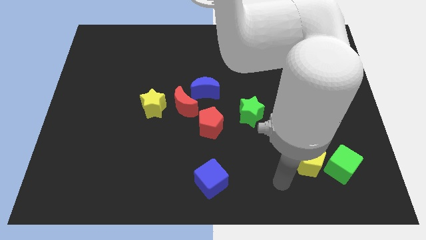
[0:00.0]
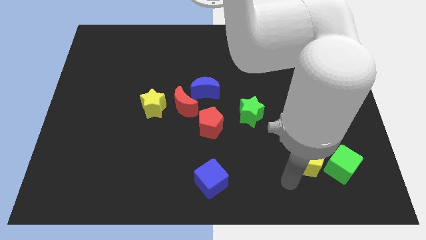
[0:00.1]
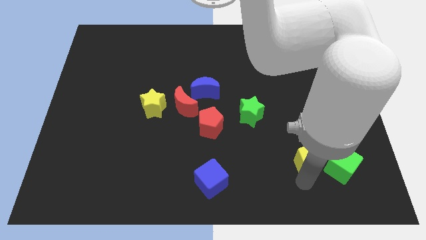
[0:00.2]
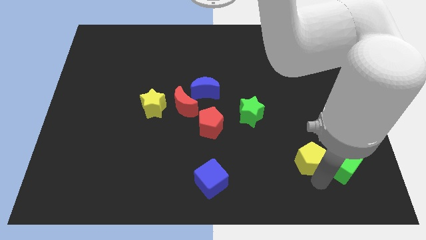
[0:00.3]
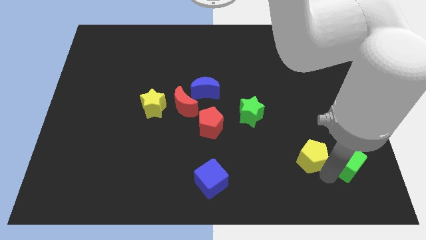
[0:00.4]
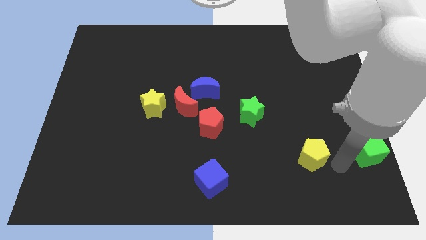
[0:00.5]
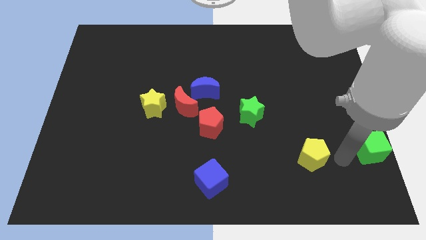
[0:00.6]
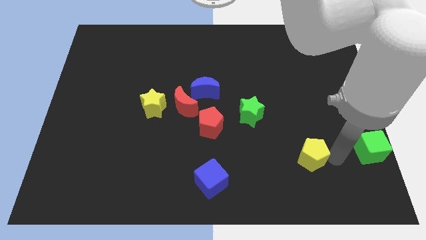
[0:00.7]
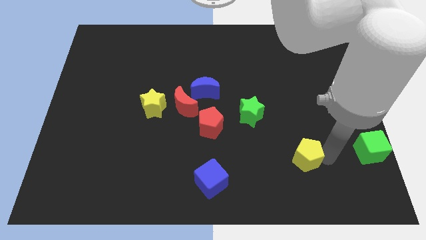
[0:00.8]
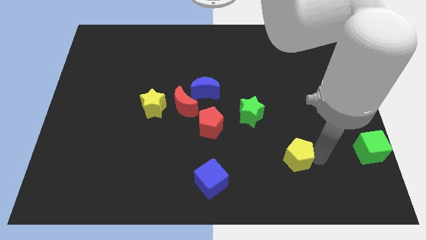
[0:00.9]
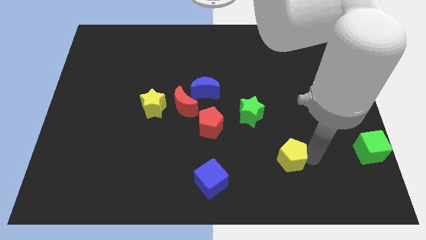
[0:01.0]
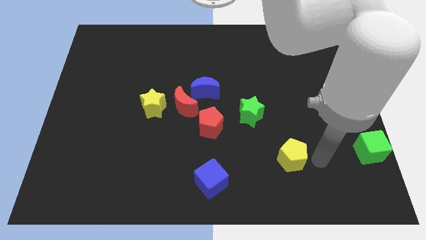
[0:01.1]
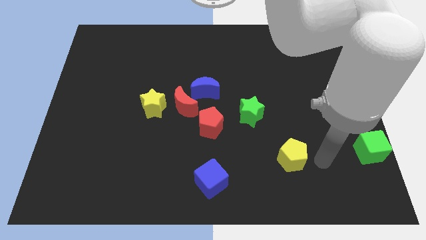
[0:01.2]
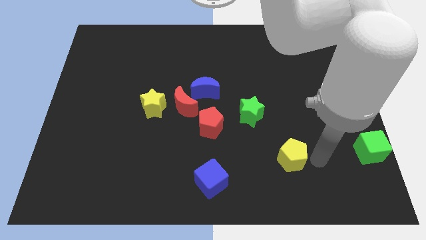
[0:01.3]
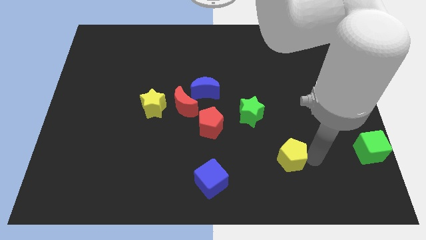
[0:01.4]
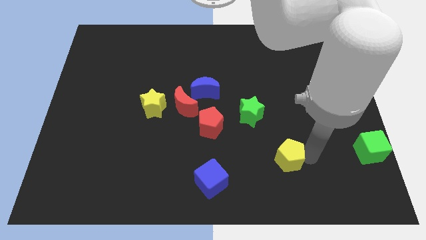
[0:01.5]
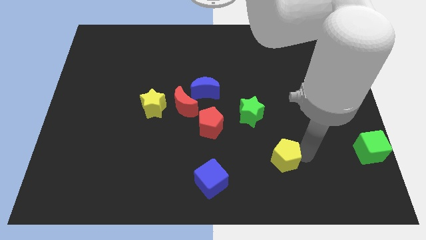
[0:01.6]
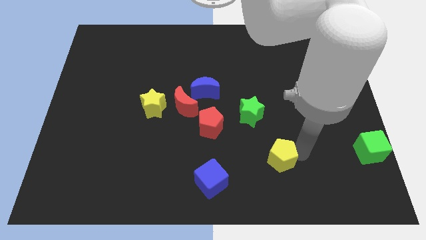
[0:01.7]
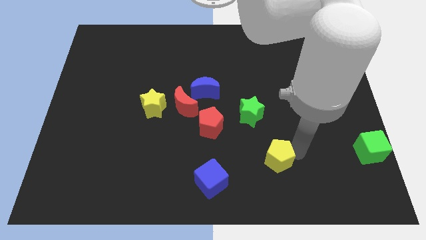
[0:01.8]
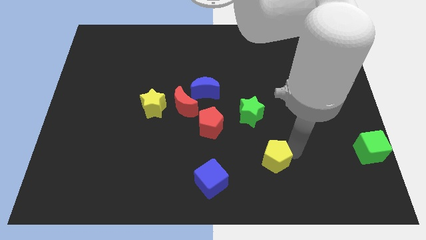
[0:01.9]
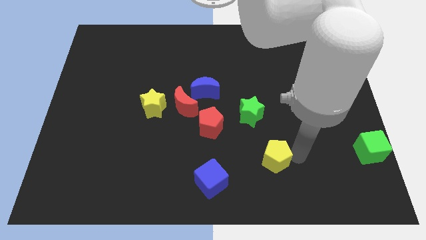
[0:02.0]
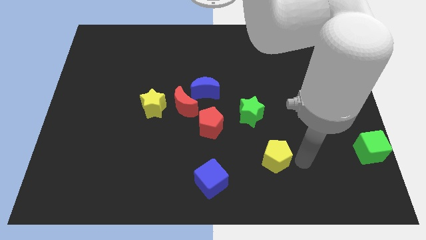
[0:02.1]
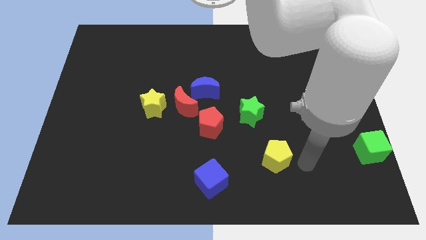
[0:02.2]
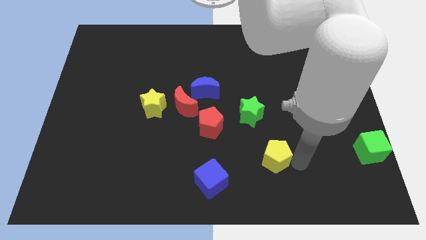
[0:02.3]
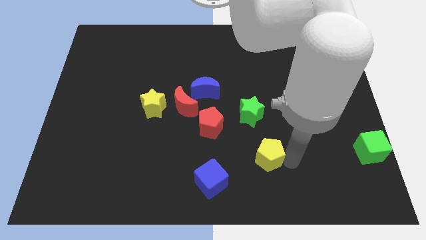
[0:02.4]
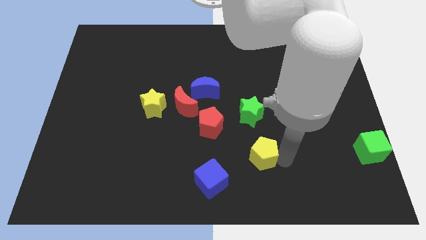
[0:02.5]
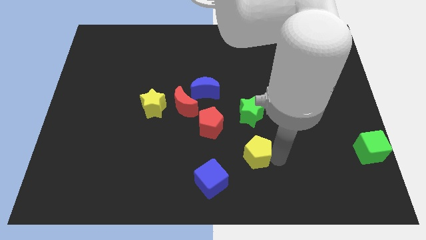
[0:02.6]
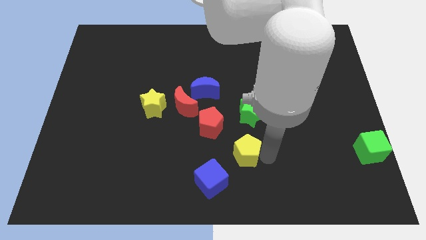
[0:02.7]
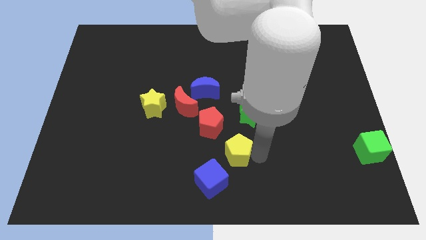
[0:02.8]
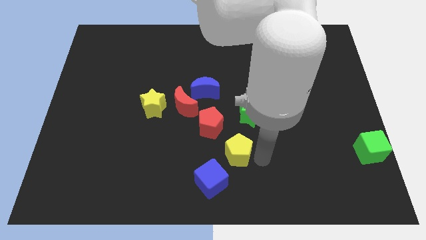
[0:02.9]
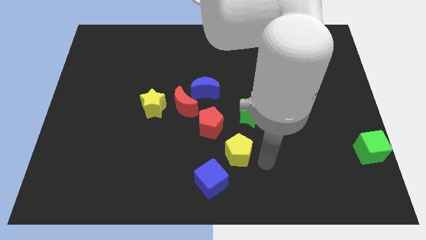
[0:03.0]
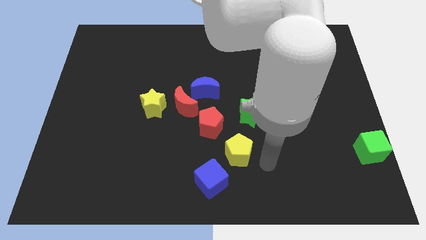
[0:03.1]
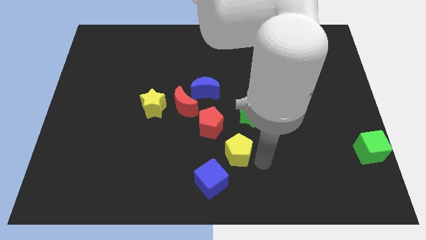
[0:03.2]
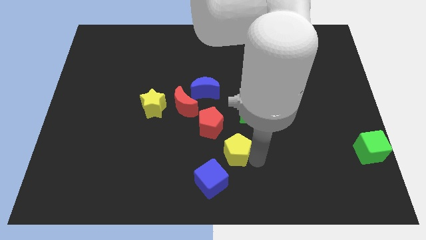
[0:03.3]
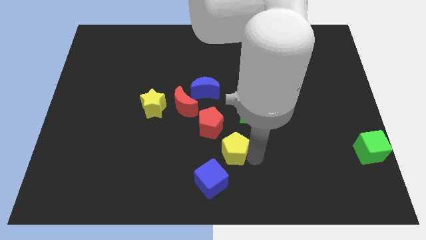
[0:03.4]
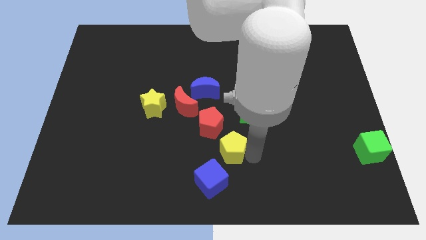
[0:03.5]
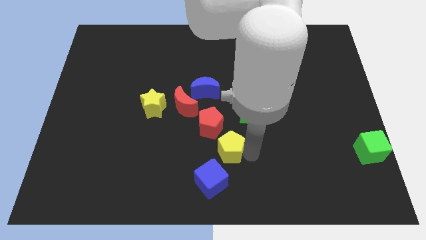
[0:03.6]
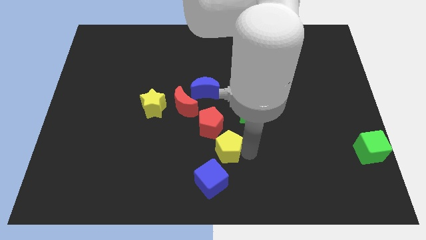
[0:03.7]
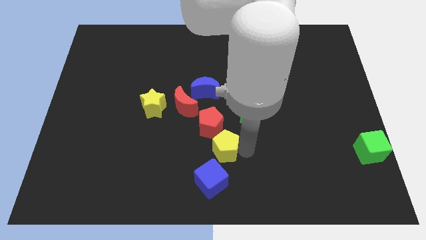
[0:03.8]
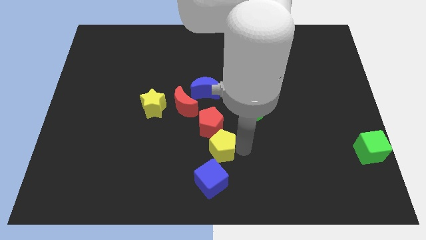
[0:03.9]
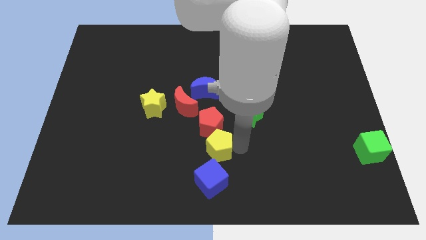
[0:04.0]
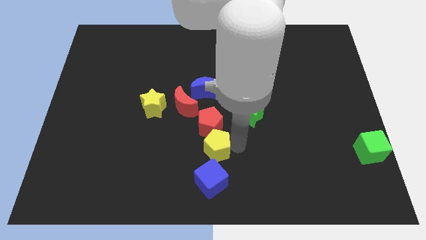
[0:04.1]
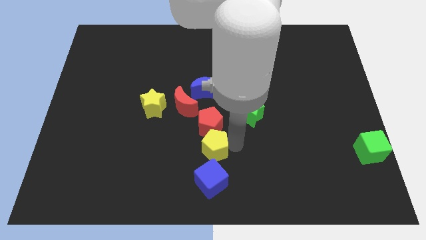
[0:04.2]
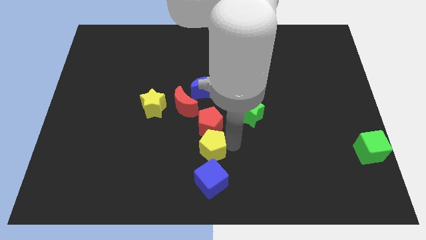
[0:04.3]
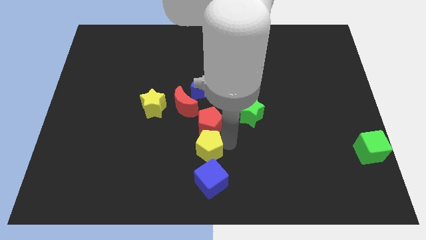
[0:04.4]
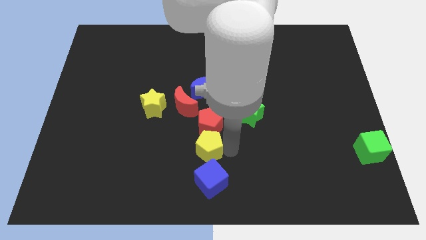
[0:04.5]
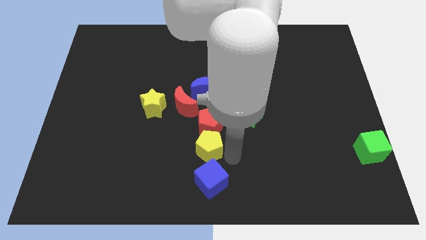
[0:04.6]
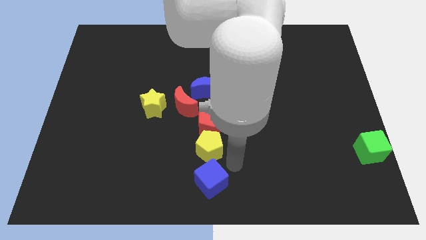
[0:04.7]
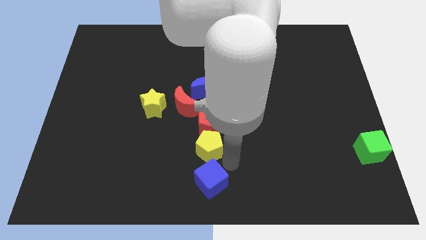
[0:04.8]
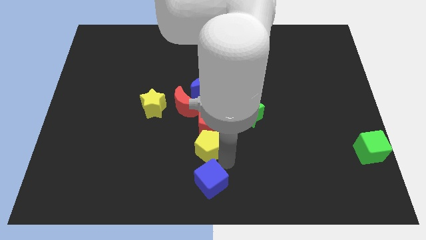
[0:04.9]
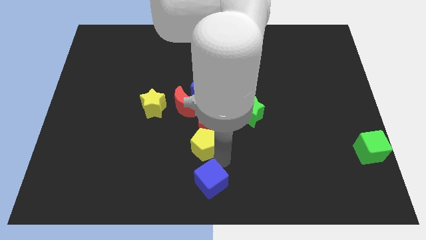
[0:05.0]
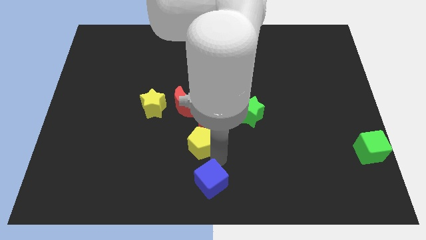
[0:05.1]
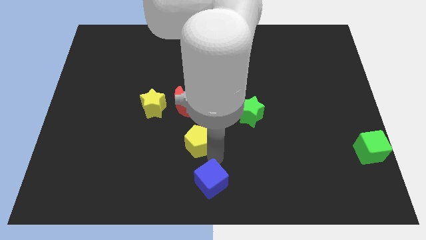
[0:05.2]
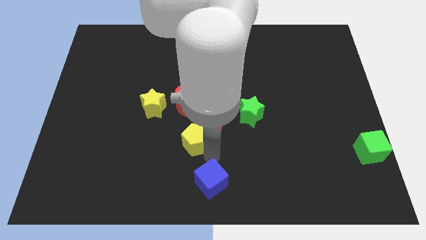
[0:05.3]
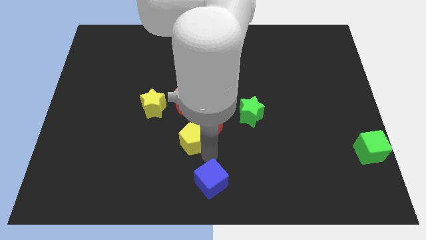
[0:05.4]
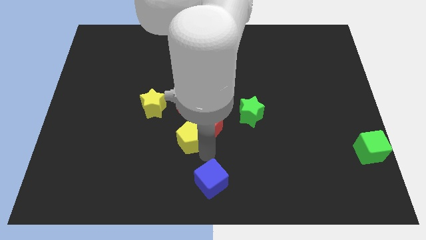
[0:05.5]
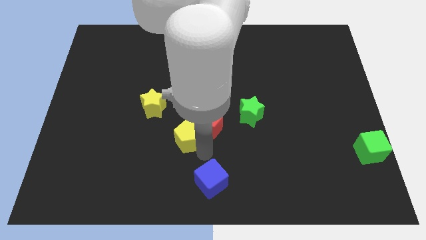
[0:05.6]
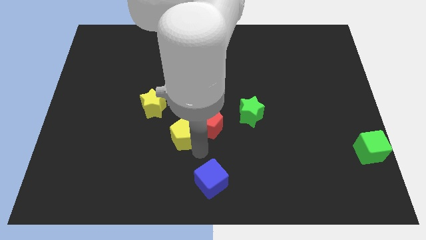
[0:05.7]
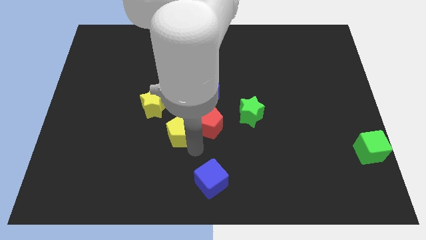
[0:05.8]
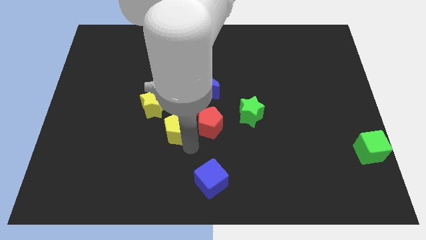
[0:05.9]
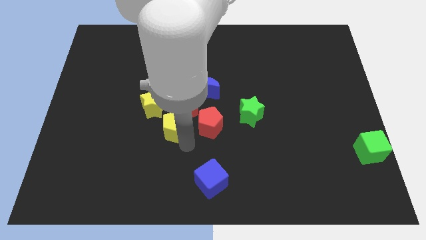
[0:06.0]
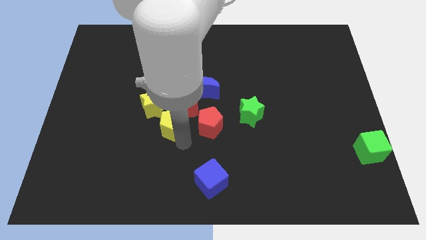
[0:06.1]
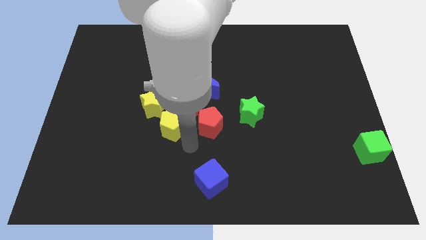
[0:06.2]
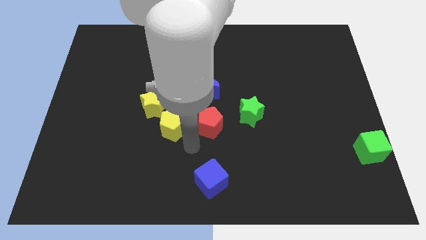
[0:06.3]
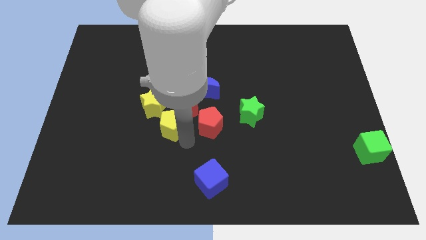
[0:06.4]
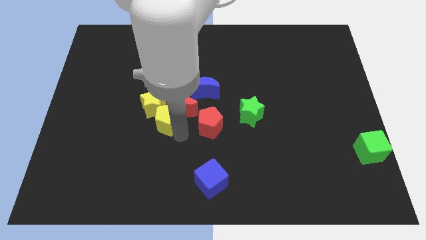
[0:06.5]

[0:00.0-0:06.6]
put the yellow pentagon close to the yellow star

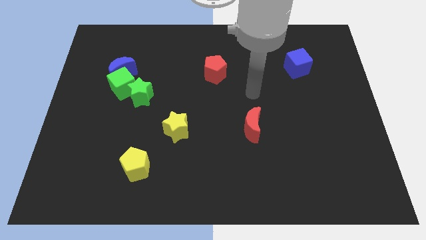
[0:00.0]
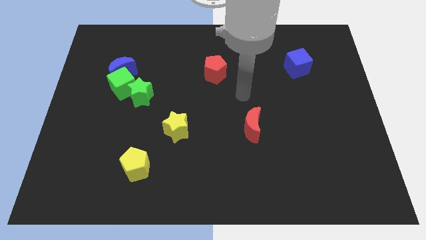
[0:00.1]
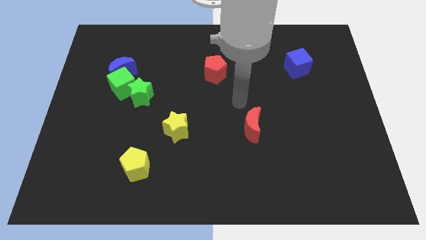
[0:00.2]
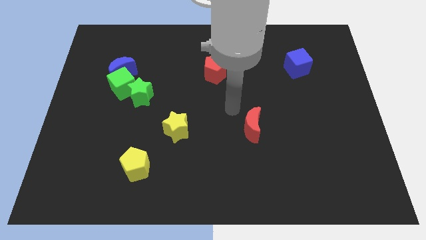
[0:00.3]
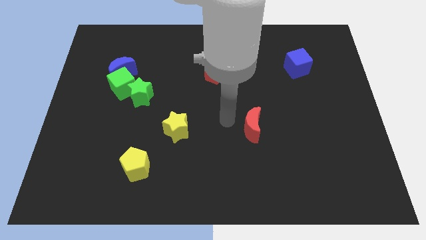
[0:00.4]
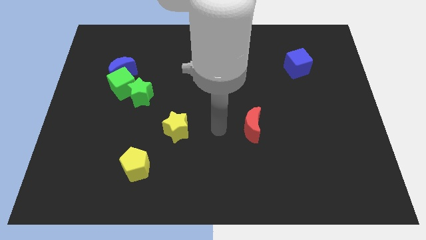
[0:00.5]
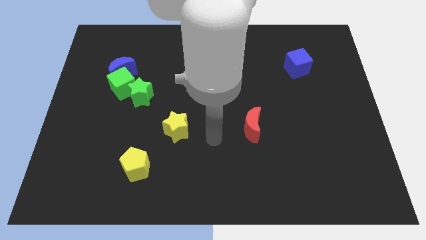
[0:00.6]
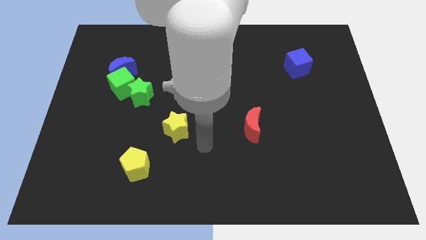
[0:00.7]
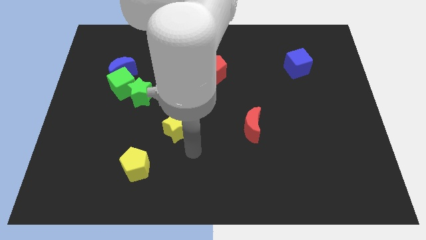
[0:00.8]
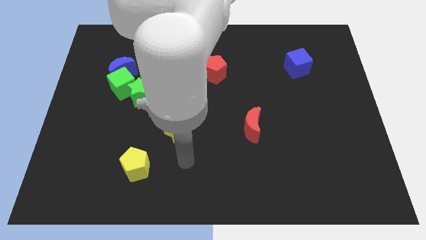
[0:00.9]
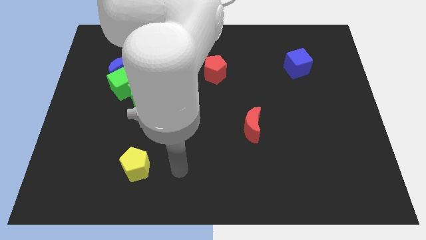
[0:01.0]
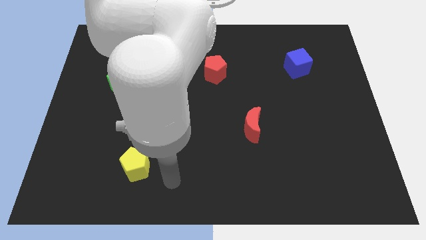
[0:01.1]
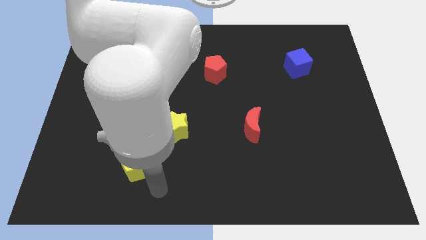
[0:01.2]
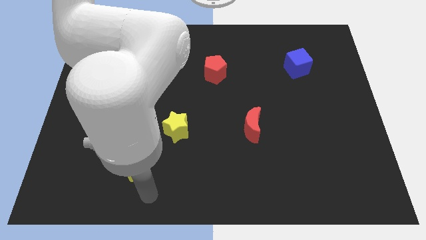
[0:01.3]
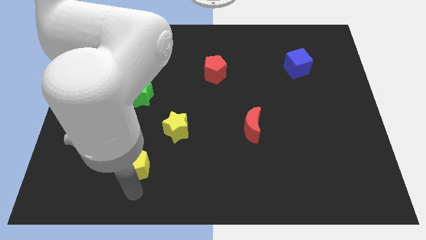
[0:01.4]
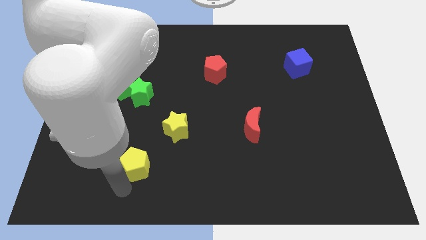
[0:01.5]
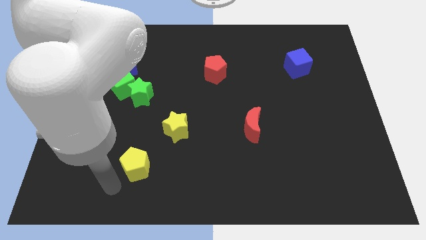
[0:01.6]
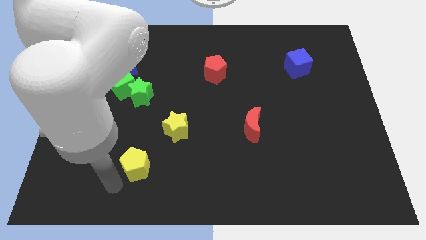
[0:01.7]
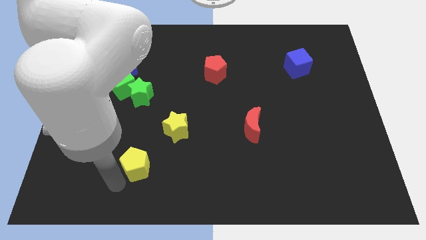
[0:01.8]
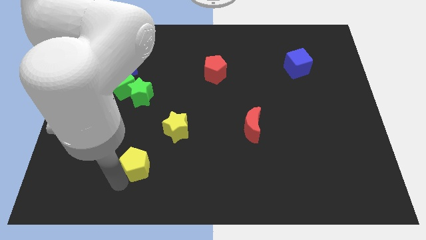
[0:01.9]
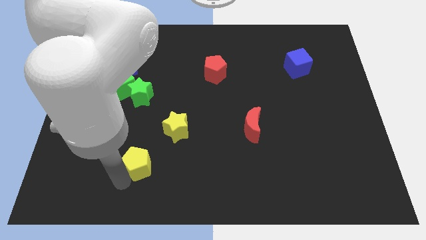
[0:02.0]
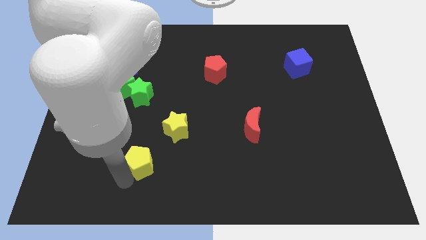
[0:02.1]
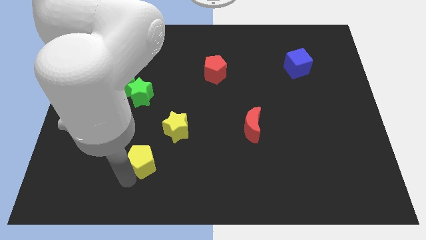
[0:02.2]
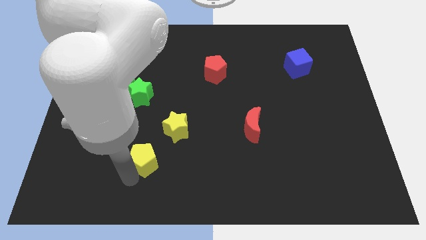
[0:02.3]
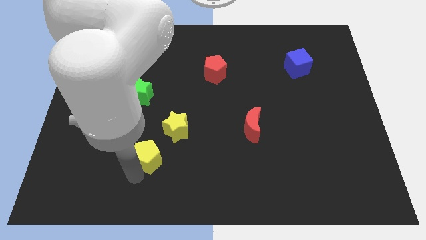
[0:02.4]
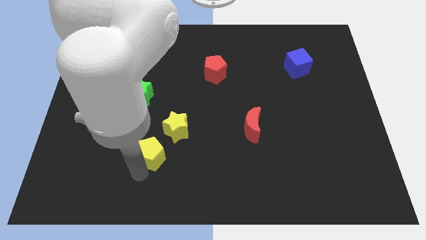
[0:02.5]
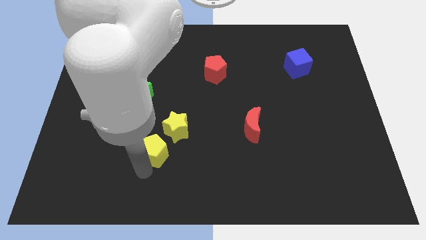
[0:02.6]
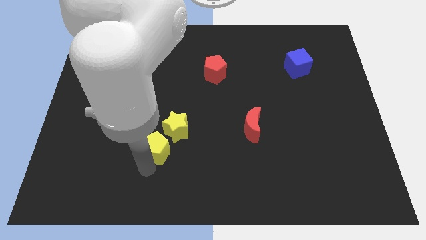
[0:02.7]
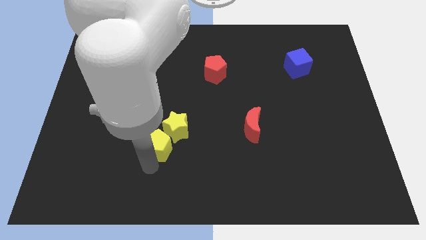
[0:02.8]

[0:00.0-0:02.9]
slide the yellow pentagon to the yellow star
